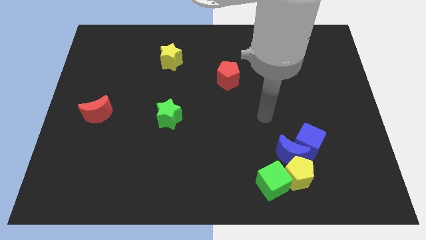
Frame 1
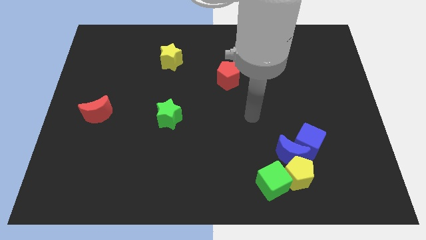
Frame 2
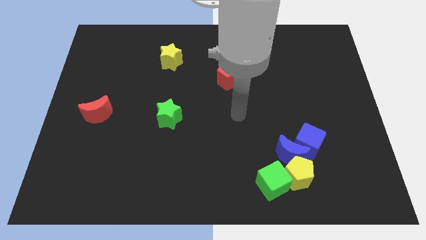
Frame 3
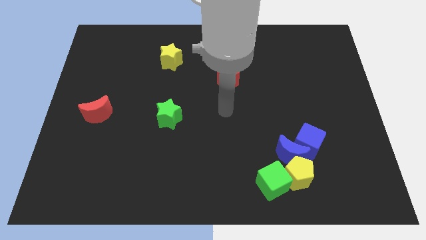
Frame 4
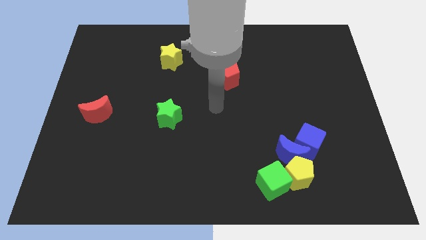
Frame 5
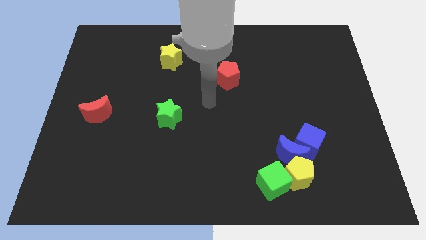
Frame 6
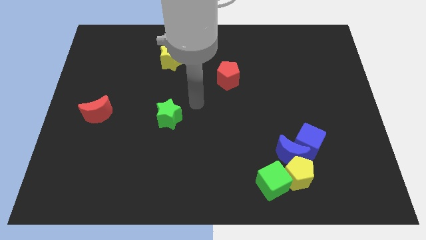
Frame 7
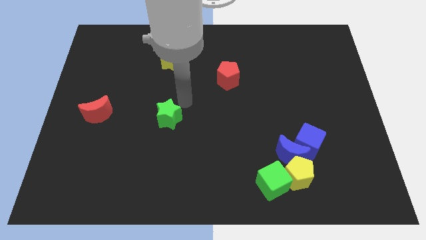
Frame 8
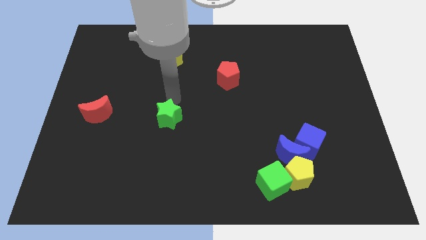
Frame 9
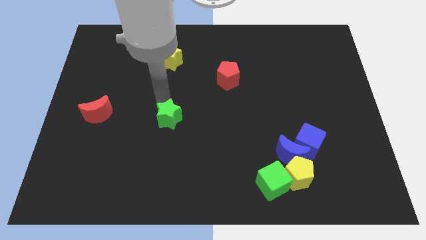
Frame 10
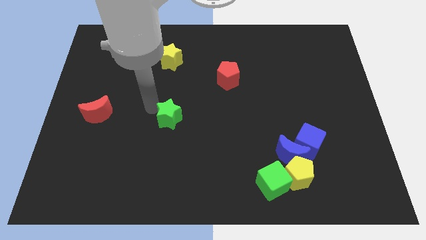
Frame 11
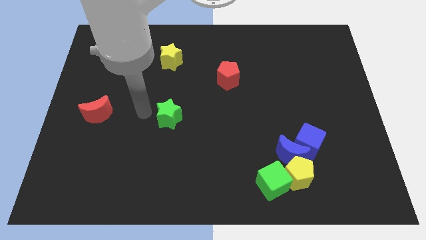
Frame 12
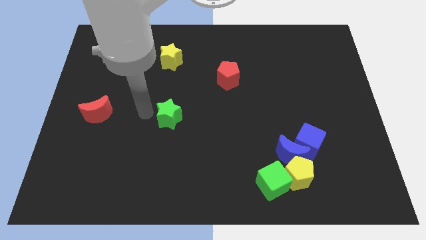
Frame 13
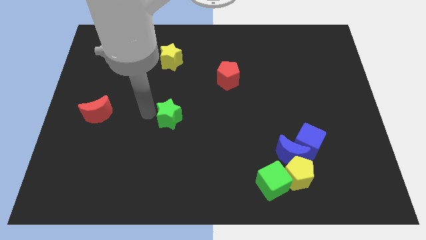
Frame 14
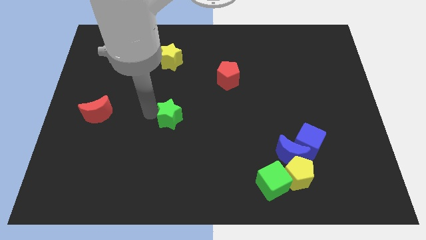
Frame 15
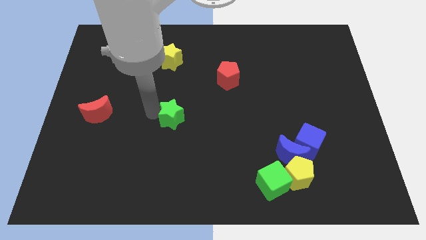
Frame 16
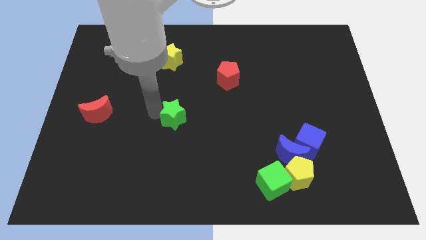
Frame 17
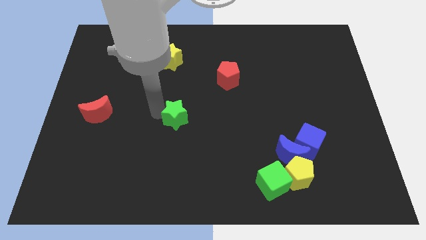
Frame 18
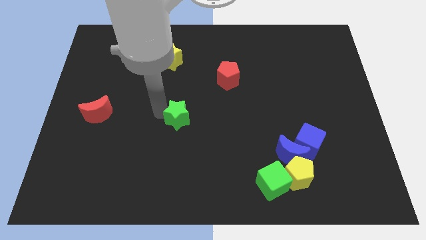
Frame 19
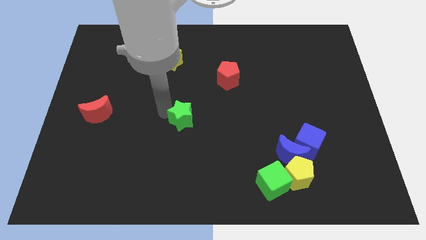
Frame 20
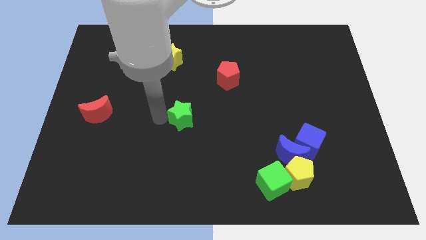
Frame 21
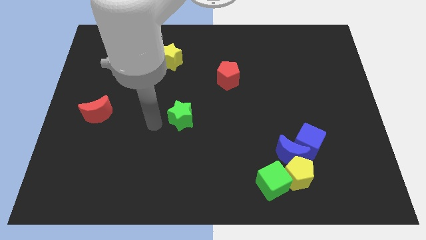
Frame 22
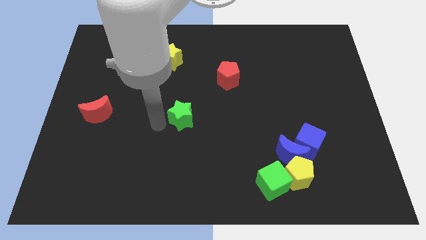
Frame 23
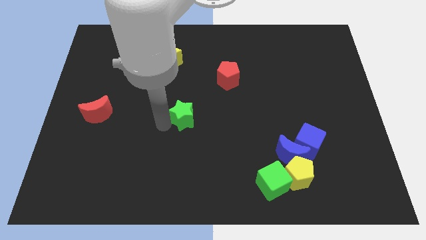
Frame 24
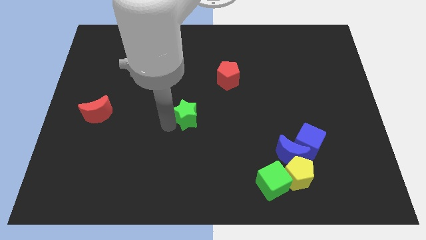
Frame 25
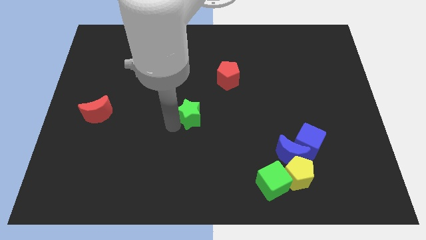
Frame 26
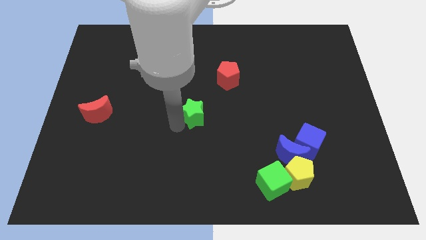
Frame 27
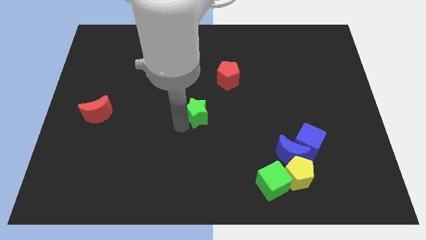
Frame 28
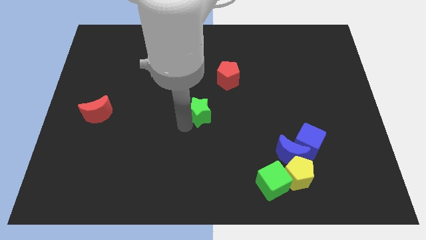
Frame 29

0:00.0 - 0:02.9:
move the green star right a little bit

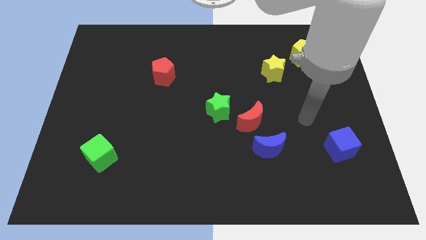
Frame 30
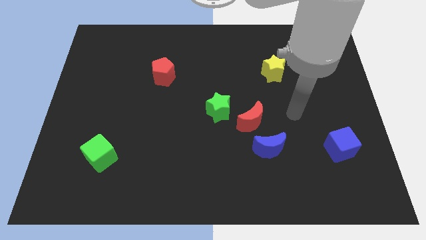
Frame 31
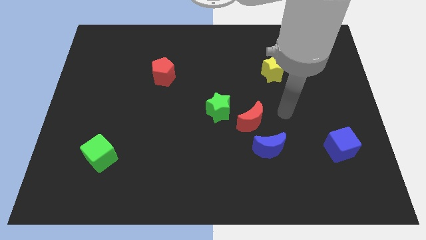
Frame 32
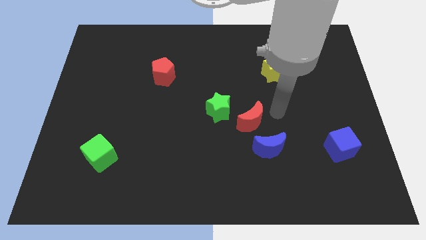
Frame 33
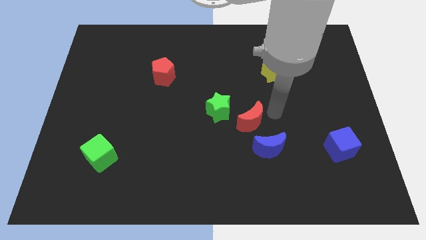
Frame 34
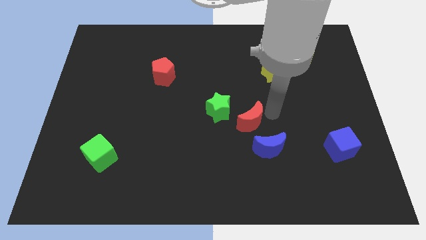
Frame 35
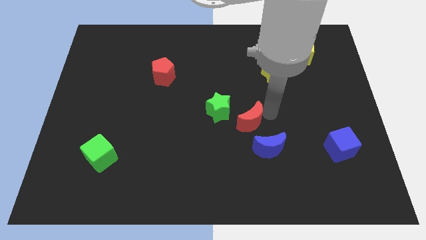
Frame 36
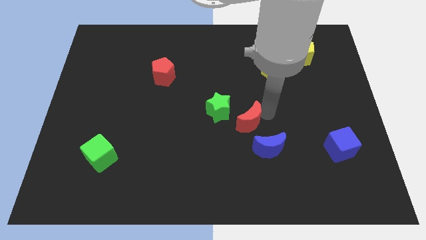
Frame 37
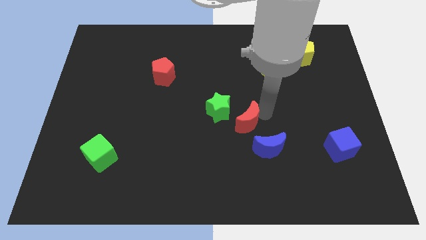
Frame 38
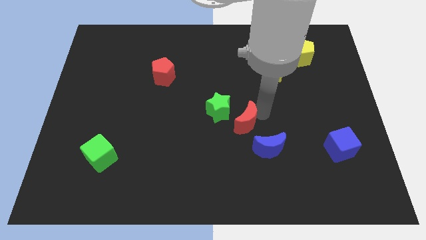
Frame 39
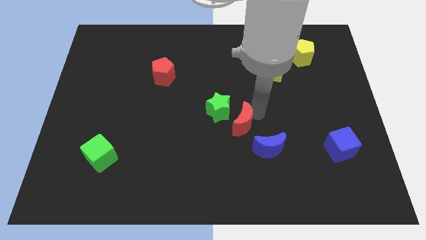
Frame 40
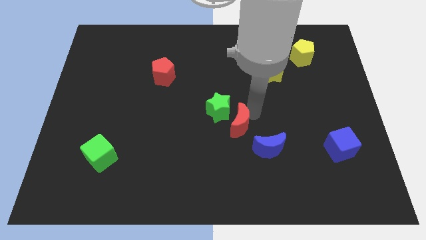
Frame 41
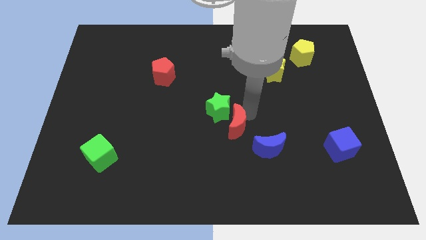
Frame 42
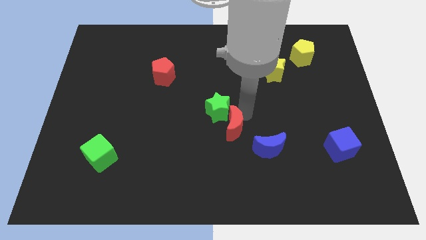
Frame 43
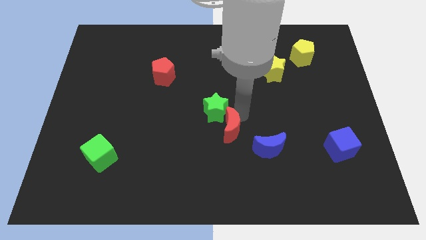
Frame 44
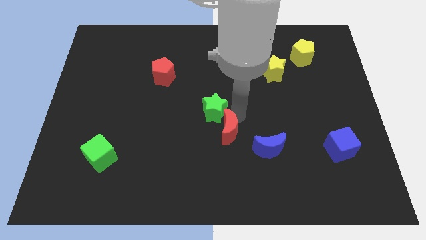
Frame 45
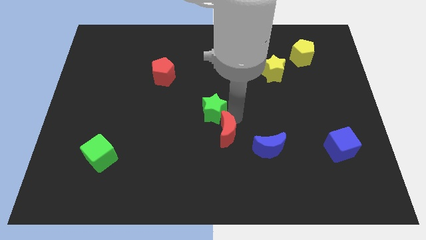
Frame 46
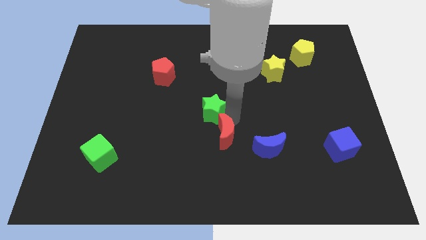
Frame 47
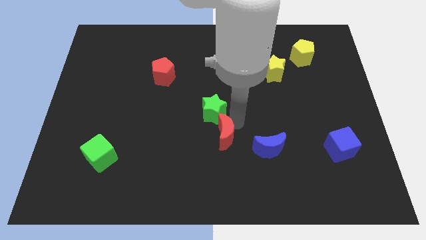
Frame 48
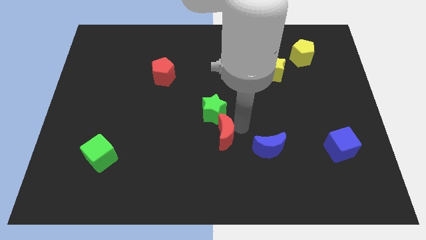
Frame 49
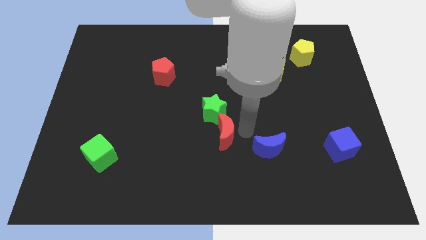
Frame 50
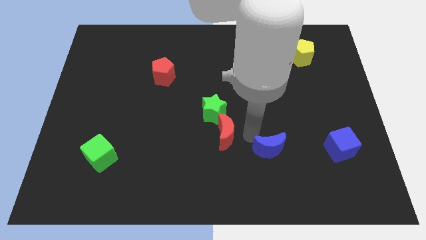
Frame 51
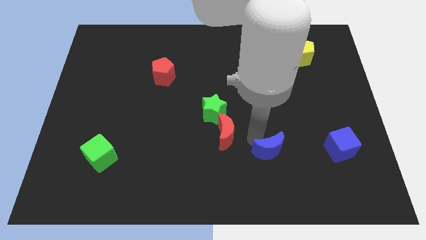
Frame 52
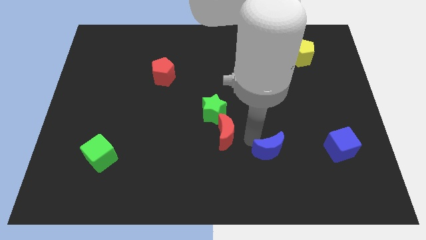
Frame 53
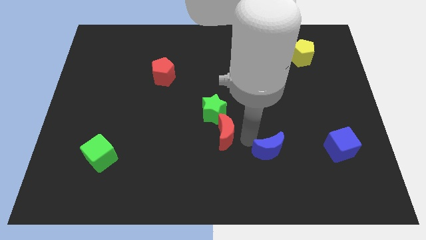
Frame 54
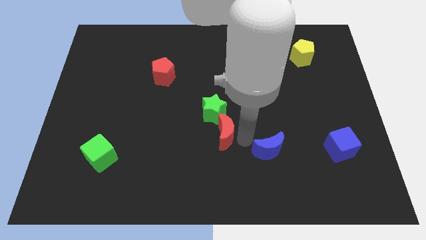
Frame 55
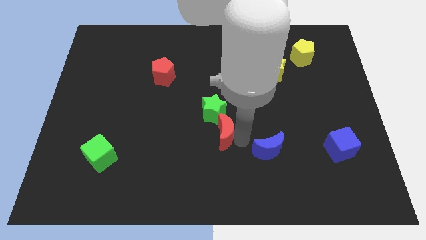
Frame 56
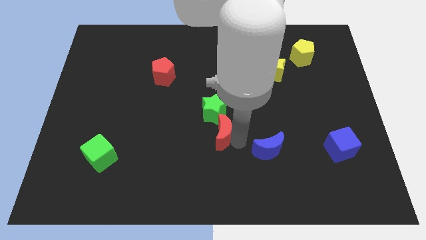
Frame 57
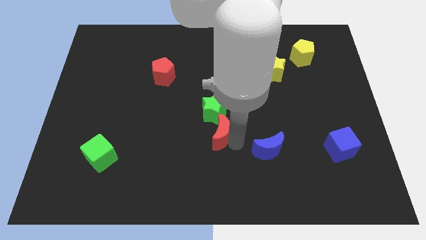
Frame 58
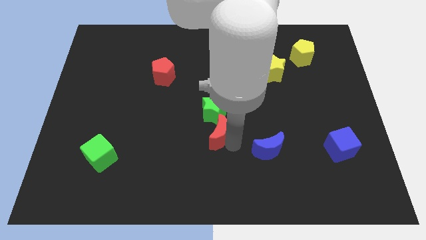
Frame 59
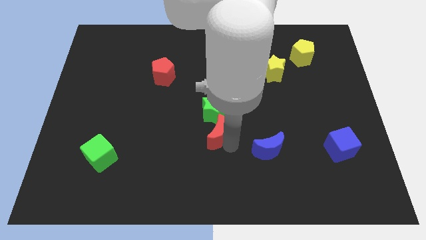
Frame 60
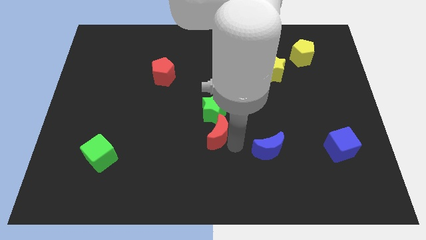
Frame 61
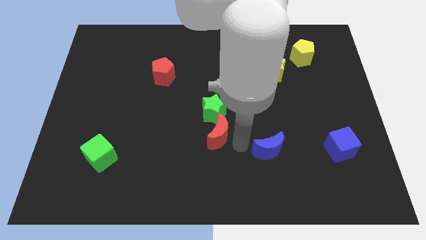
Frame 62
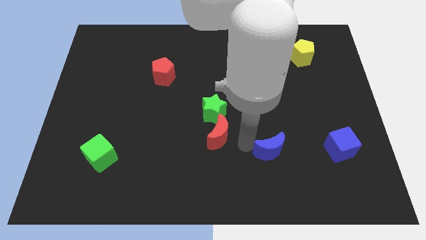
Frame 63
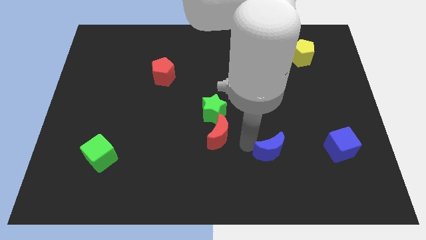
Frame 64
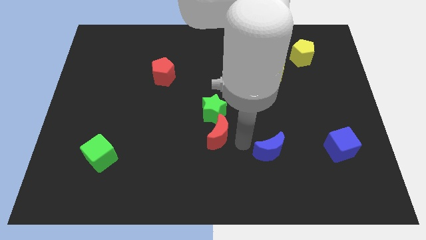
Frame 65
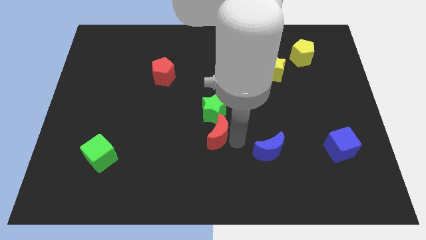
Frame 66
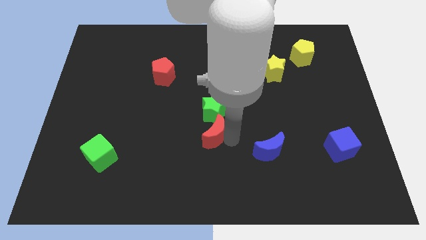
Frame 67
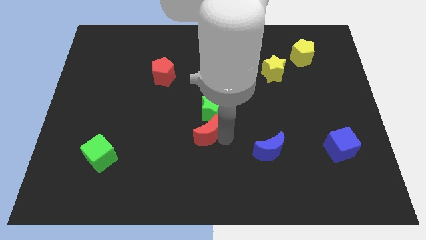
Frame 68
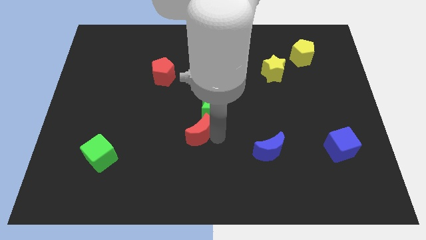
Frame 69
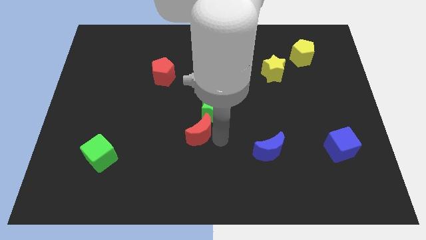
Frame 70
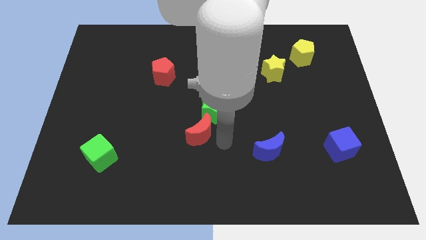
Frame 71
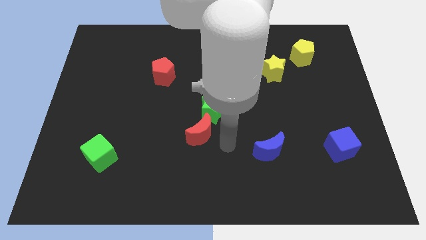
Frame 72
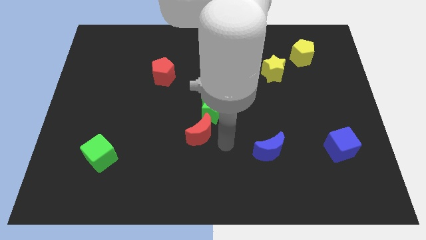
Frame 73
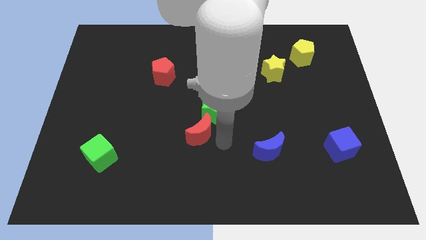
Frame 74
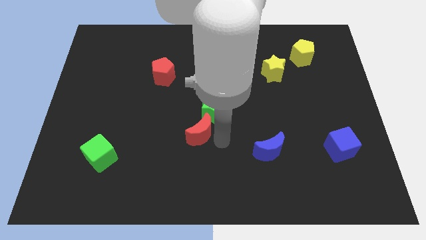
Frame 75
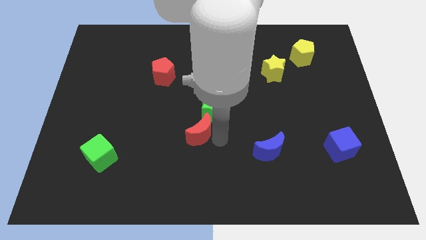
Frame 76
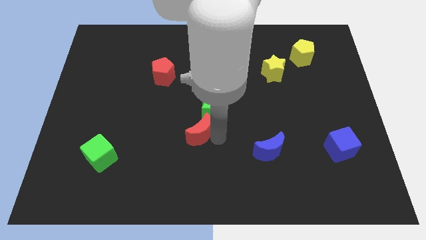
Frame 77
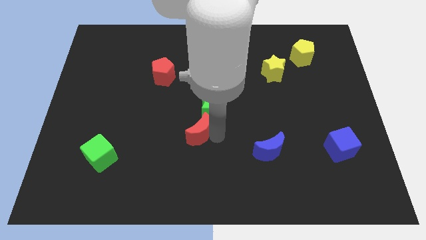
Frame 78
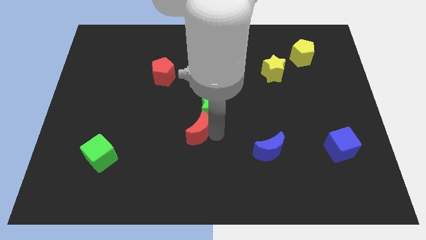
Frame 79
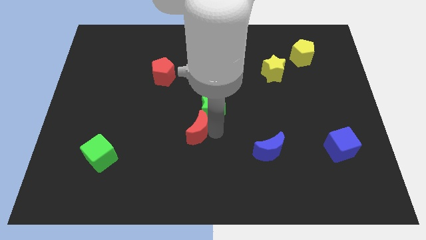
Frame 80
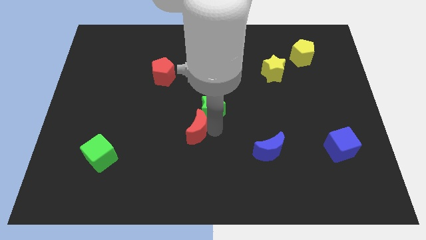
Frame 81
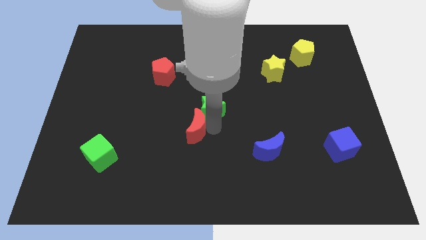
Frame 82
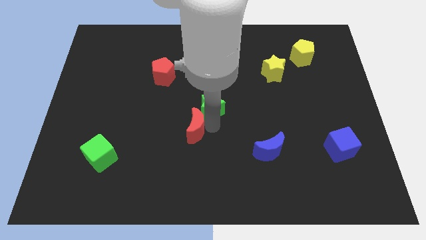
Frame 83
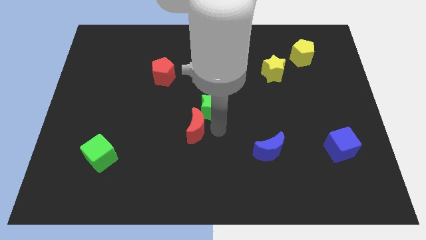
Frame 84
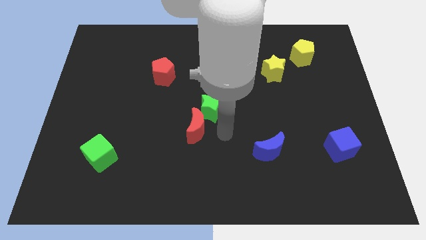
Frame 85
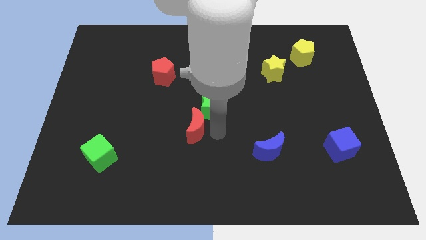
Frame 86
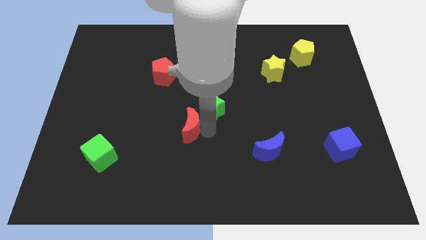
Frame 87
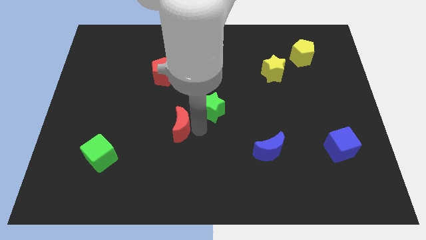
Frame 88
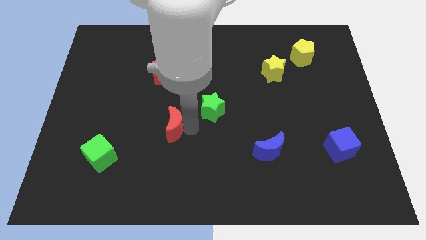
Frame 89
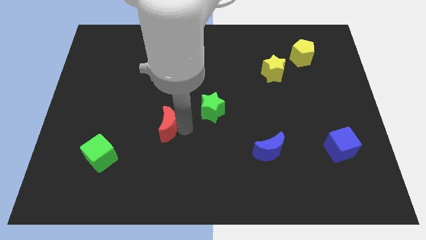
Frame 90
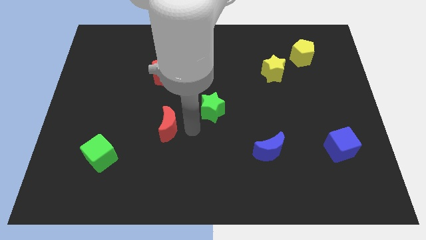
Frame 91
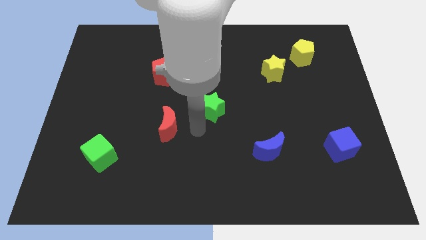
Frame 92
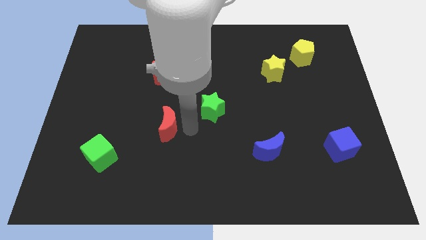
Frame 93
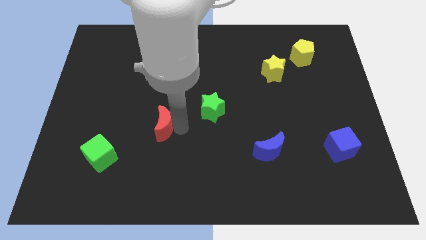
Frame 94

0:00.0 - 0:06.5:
move the red moon left
